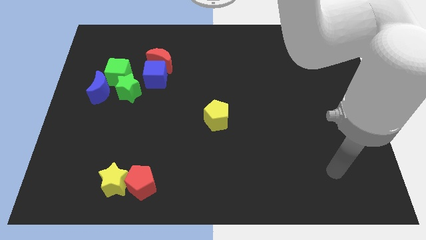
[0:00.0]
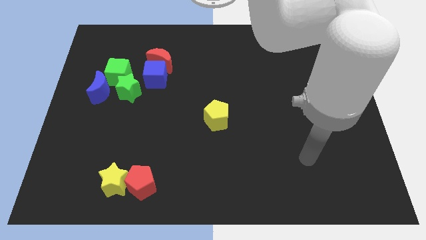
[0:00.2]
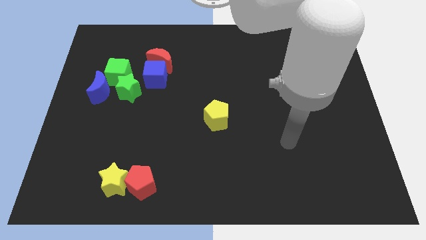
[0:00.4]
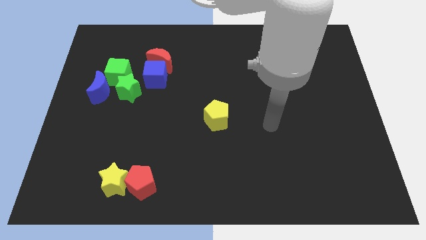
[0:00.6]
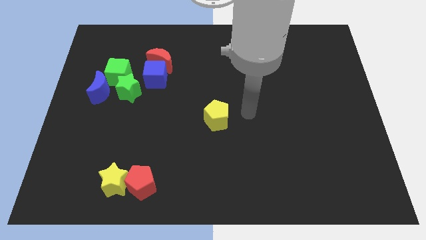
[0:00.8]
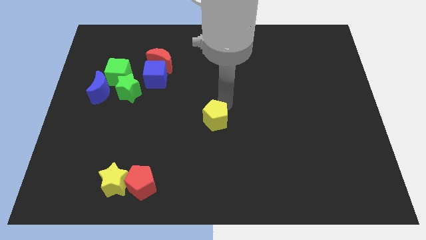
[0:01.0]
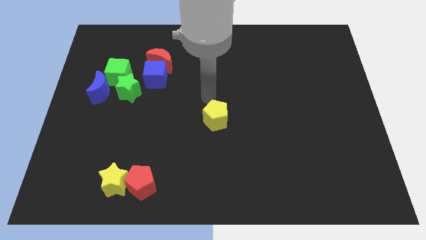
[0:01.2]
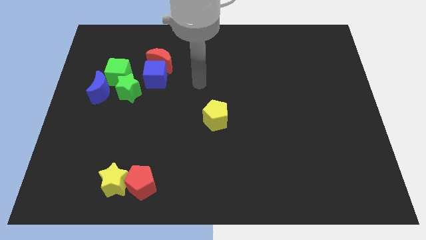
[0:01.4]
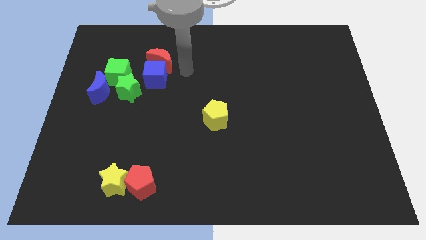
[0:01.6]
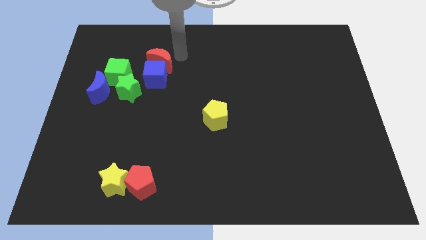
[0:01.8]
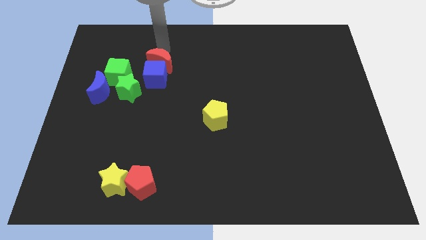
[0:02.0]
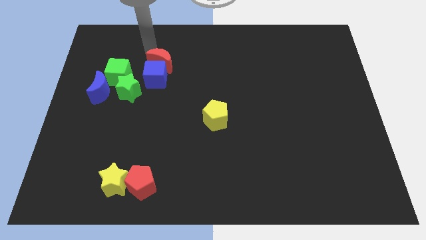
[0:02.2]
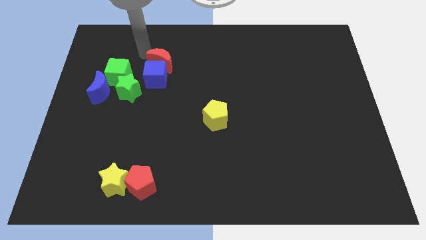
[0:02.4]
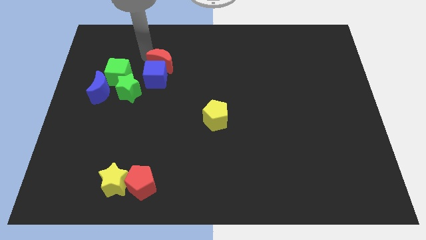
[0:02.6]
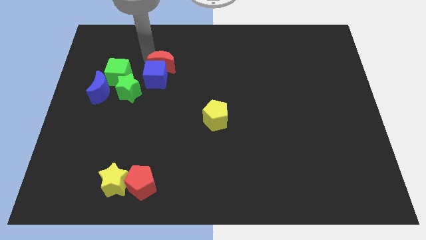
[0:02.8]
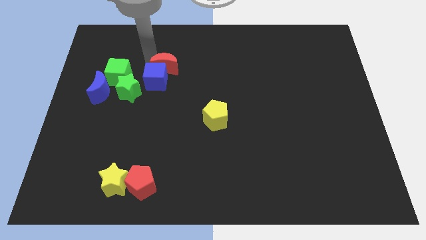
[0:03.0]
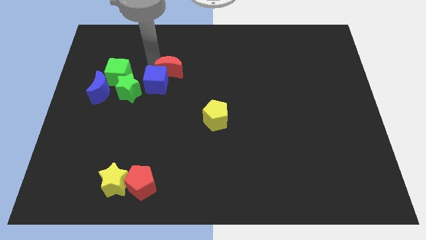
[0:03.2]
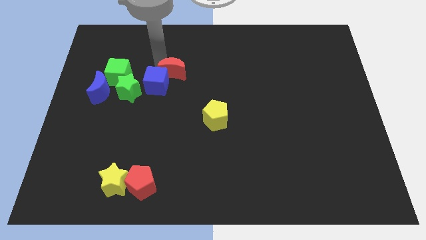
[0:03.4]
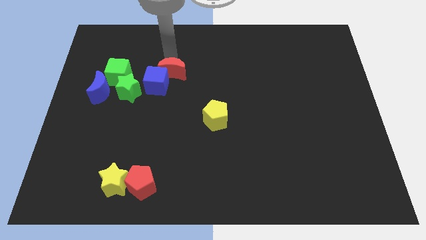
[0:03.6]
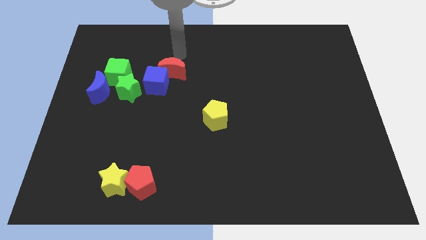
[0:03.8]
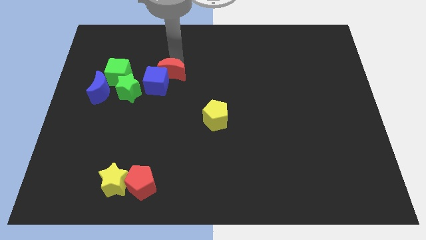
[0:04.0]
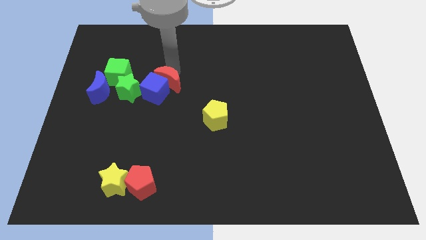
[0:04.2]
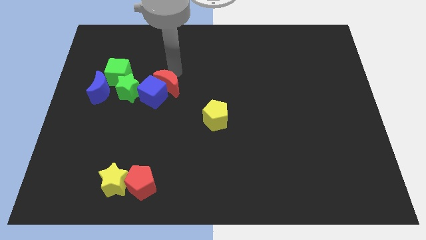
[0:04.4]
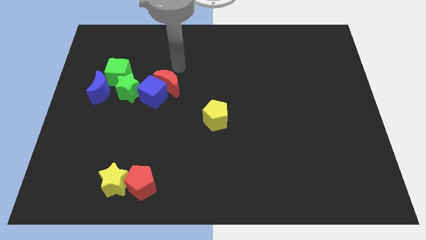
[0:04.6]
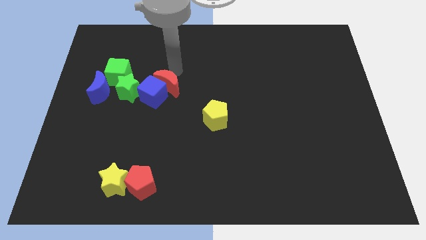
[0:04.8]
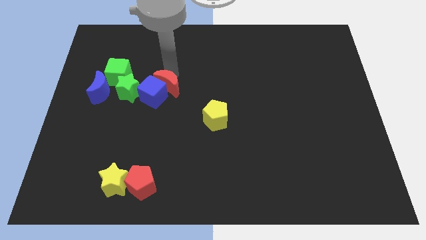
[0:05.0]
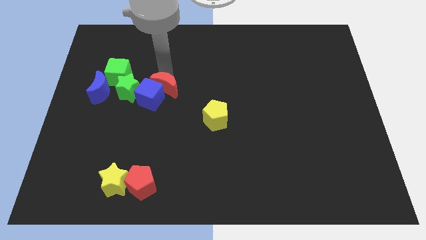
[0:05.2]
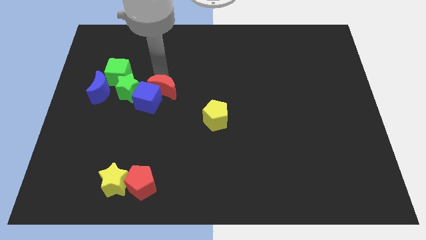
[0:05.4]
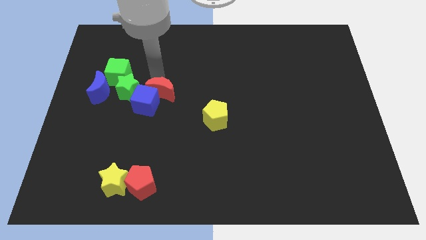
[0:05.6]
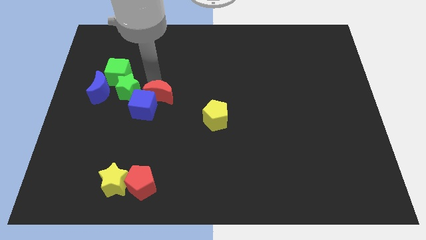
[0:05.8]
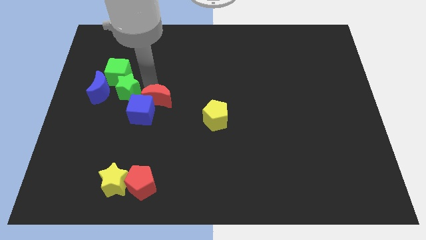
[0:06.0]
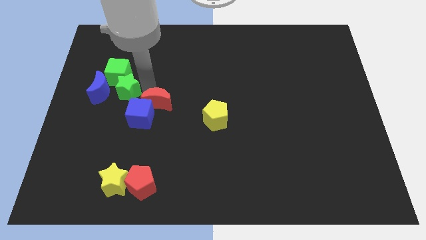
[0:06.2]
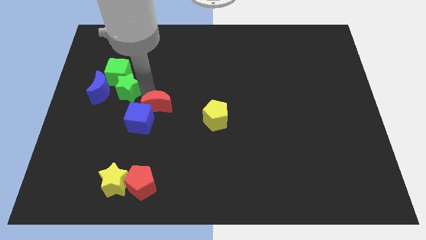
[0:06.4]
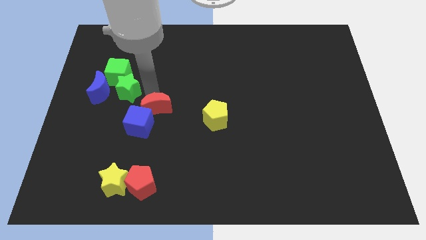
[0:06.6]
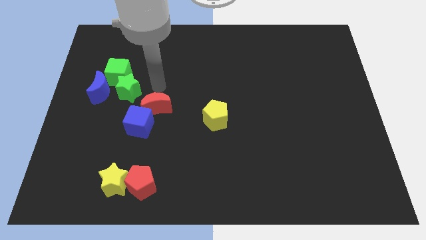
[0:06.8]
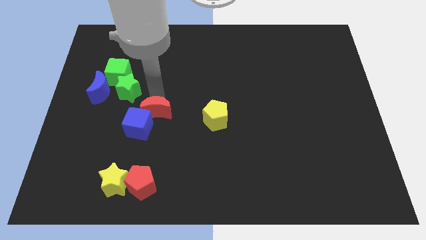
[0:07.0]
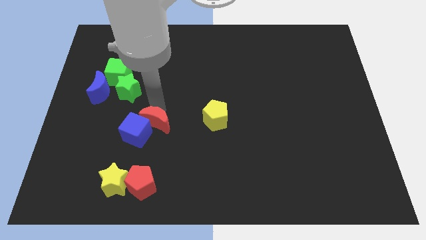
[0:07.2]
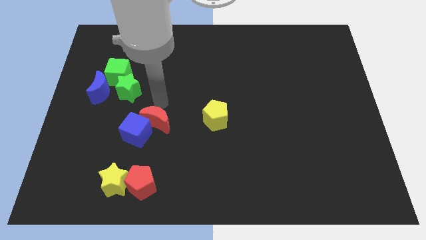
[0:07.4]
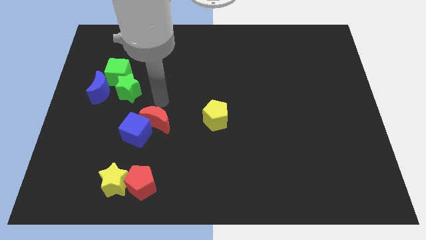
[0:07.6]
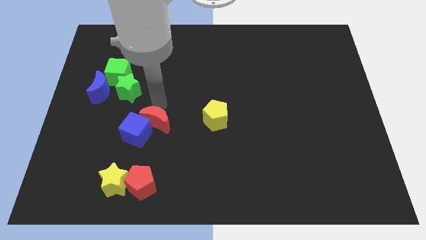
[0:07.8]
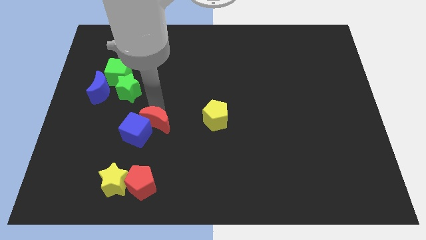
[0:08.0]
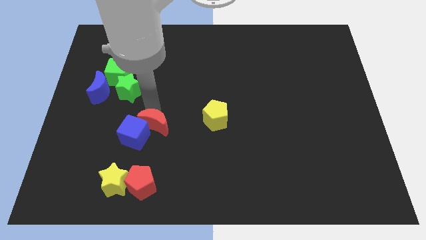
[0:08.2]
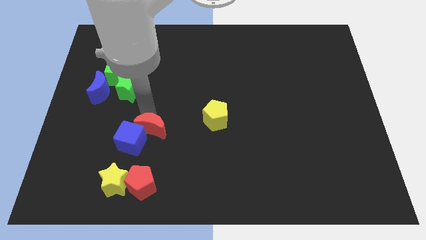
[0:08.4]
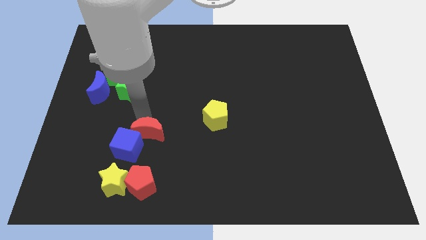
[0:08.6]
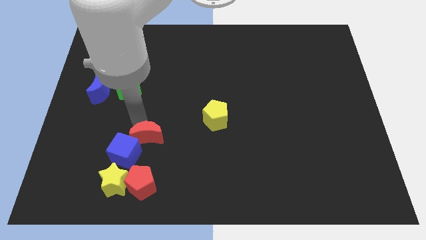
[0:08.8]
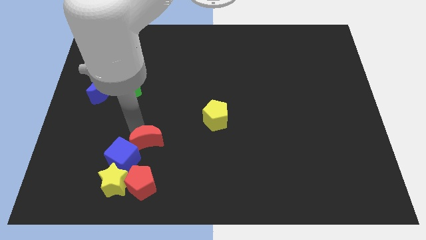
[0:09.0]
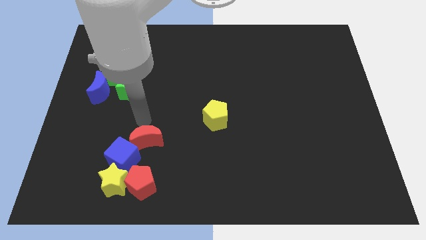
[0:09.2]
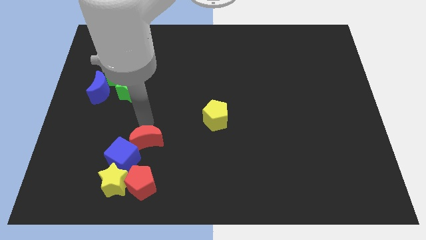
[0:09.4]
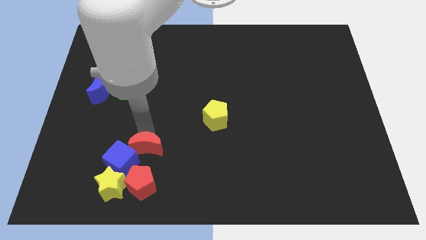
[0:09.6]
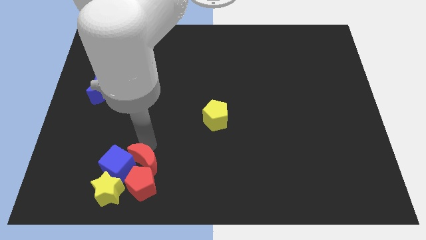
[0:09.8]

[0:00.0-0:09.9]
push the red moon to the red pentagon

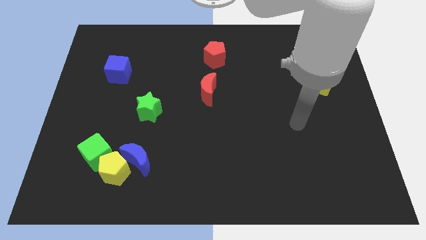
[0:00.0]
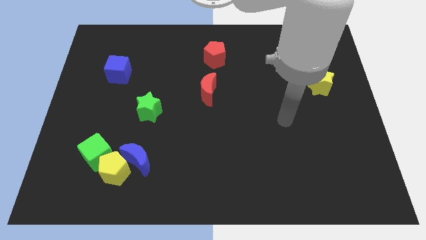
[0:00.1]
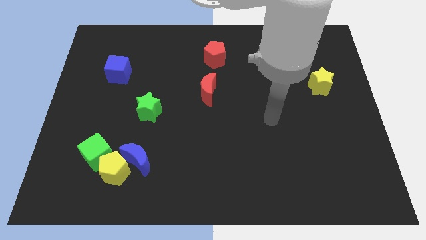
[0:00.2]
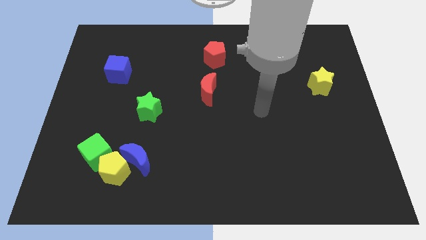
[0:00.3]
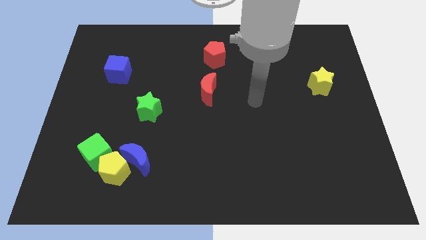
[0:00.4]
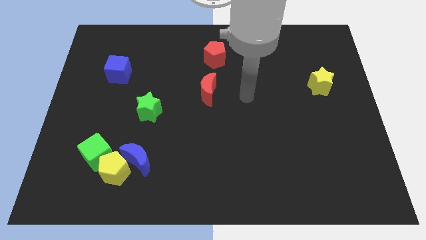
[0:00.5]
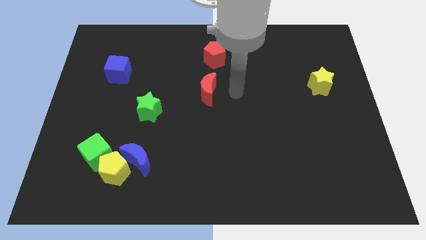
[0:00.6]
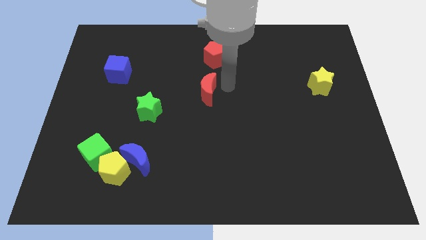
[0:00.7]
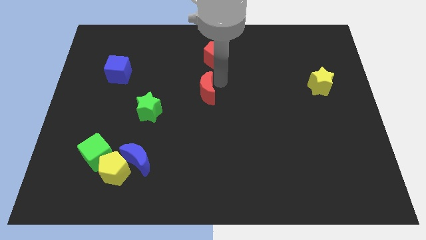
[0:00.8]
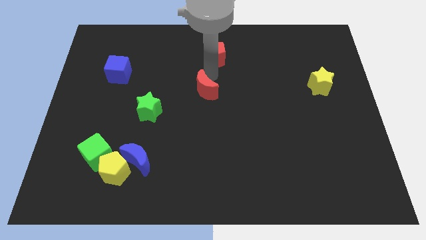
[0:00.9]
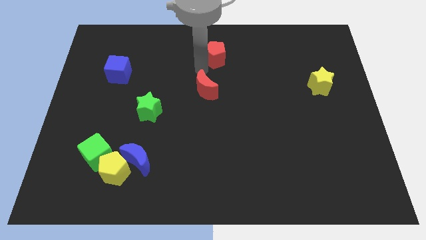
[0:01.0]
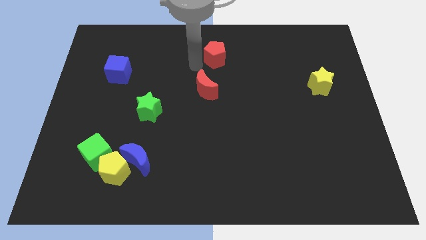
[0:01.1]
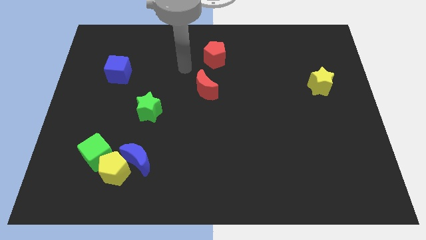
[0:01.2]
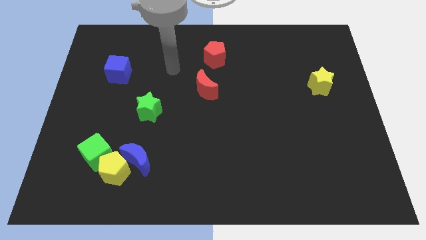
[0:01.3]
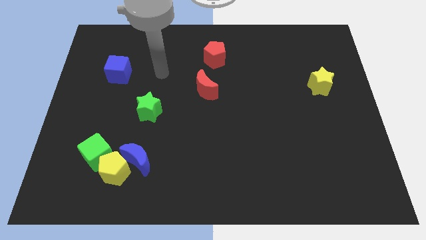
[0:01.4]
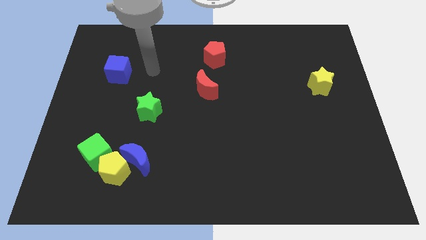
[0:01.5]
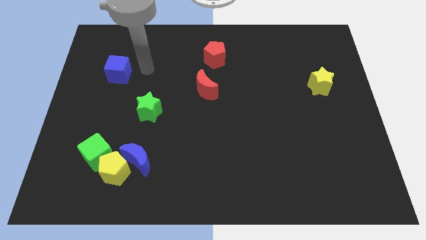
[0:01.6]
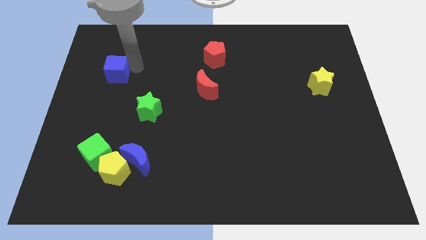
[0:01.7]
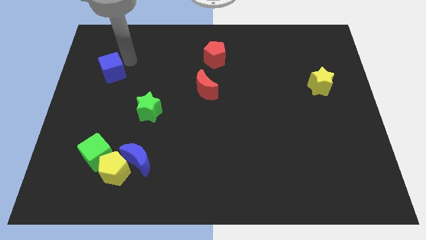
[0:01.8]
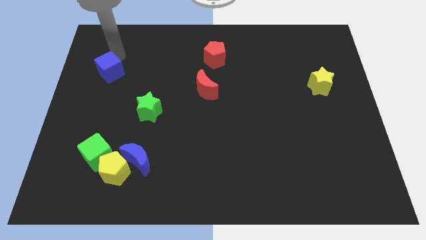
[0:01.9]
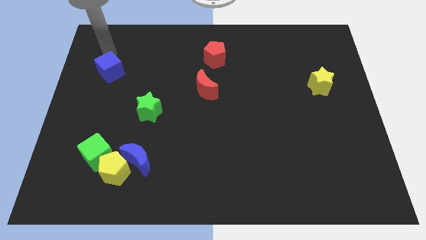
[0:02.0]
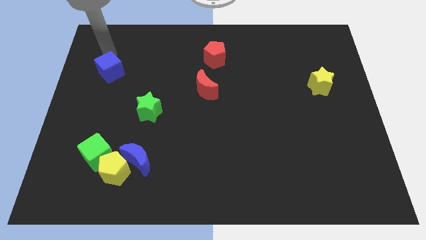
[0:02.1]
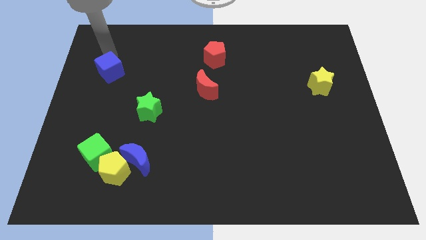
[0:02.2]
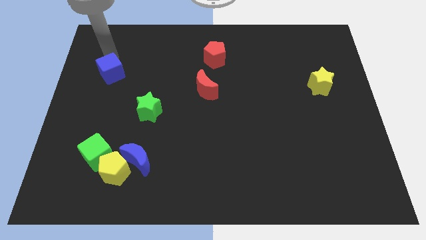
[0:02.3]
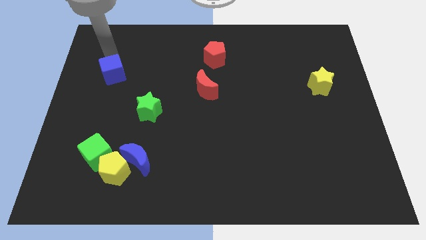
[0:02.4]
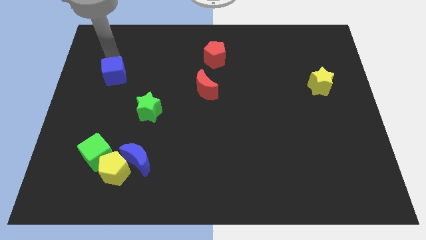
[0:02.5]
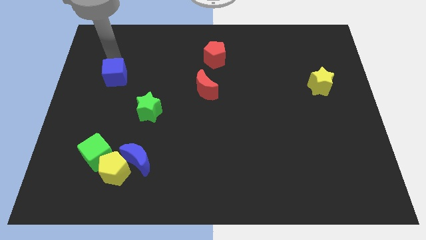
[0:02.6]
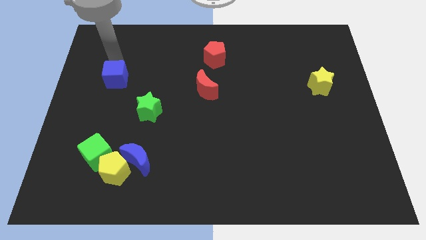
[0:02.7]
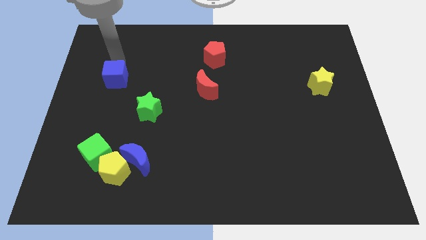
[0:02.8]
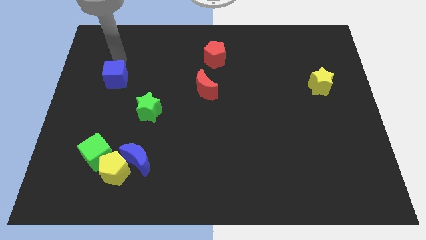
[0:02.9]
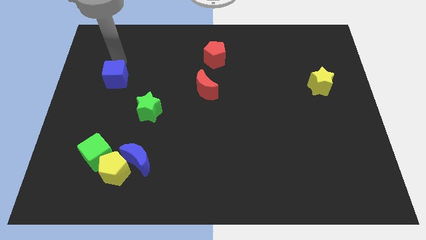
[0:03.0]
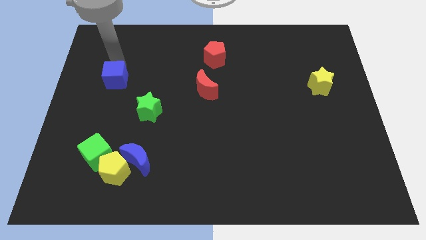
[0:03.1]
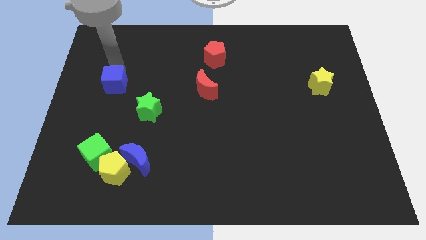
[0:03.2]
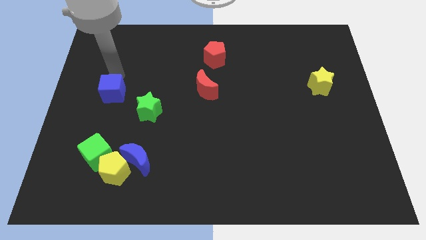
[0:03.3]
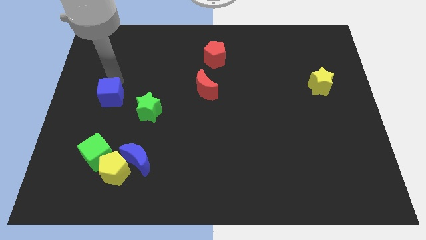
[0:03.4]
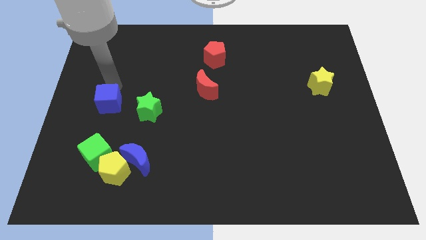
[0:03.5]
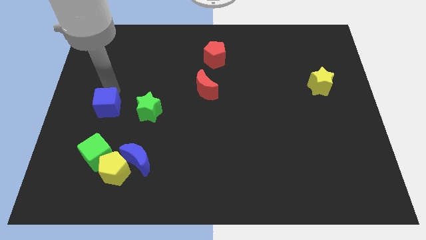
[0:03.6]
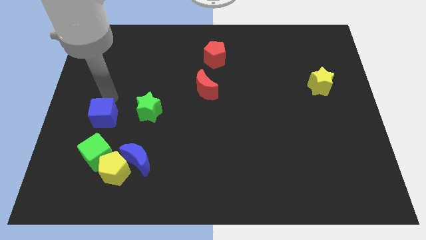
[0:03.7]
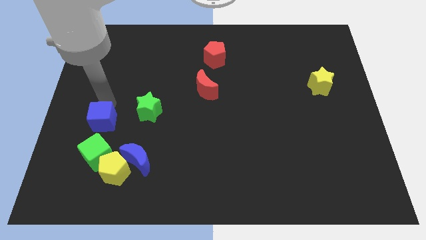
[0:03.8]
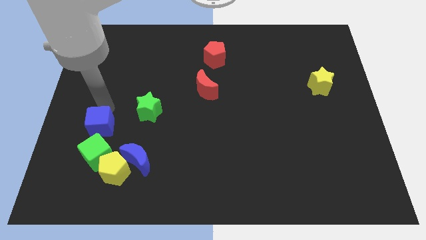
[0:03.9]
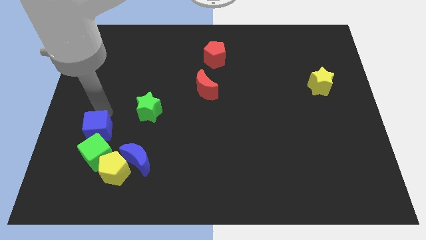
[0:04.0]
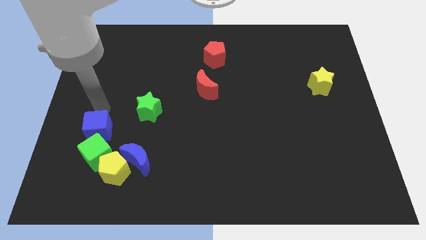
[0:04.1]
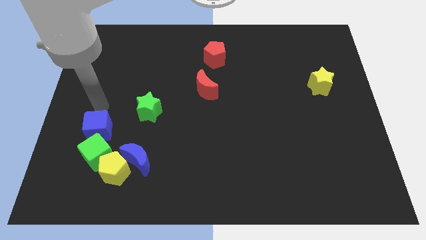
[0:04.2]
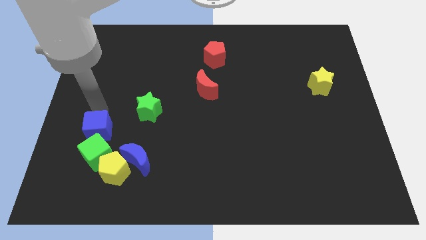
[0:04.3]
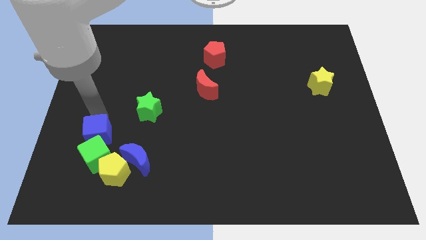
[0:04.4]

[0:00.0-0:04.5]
put the blue cube towards the green cube
